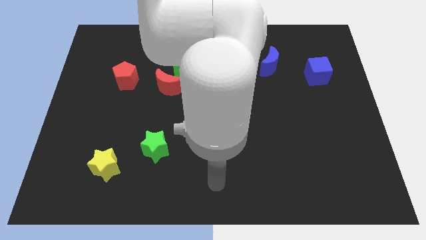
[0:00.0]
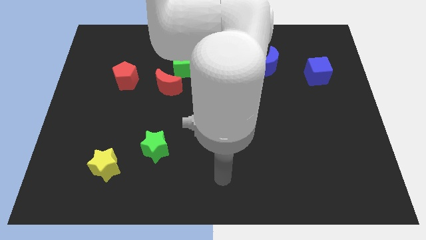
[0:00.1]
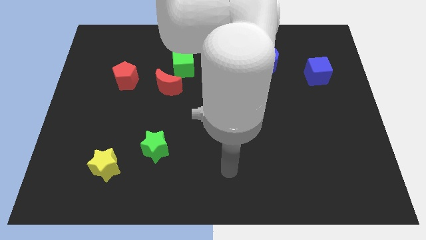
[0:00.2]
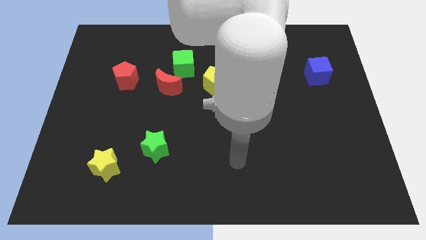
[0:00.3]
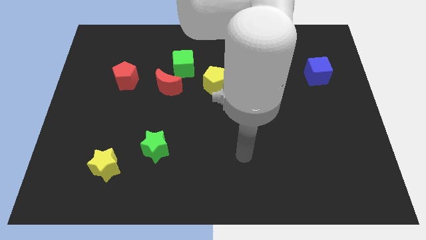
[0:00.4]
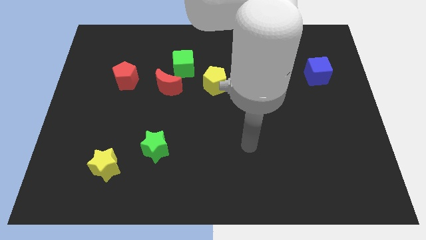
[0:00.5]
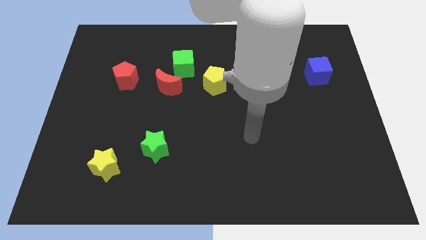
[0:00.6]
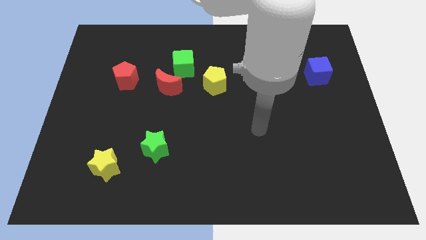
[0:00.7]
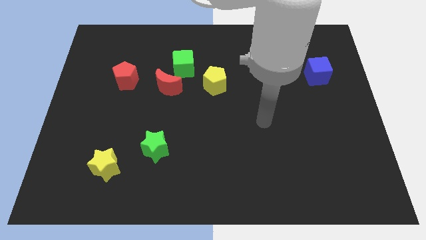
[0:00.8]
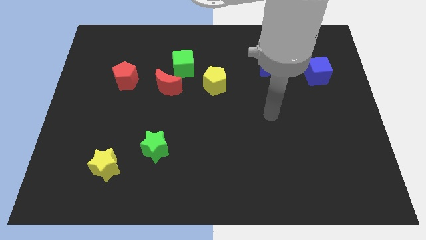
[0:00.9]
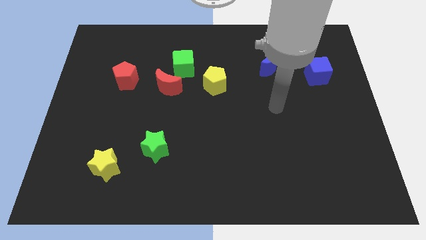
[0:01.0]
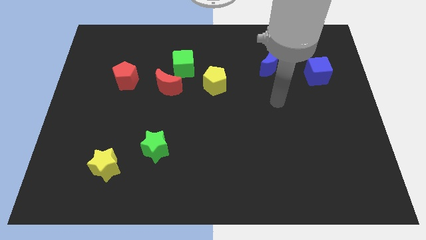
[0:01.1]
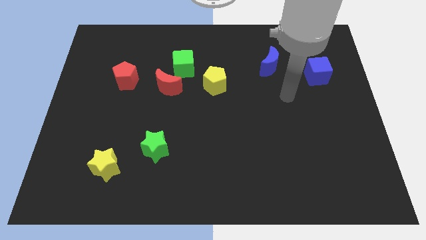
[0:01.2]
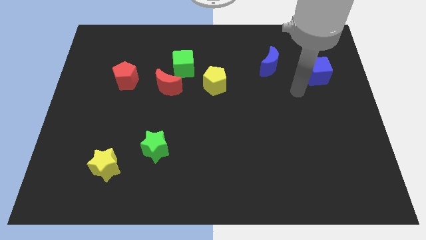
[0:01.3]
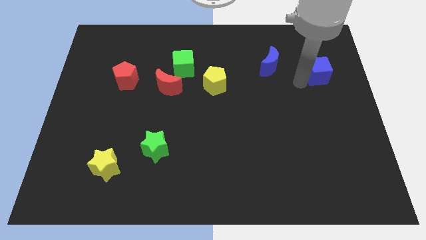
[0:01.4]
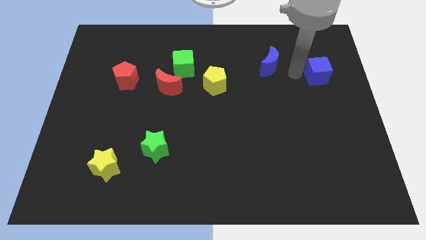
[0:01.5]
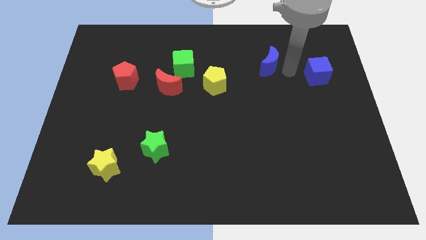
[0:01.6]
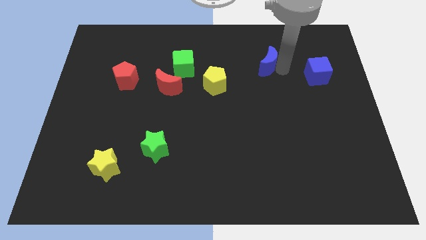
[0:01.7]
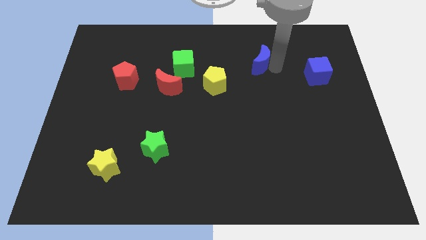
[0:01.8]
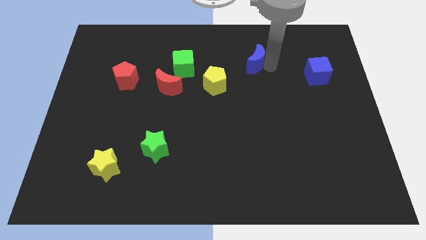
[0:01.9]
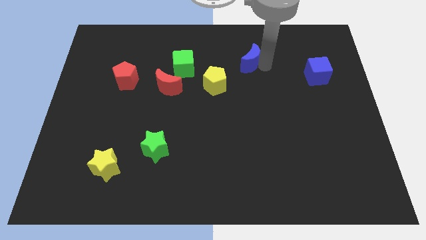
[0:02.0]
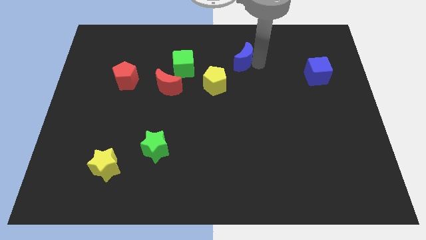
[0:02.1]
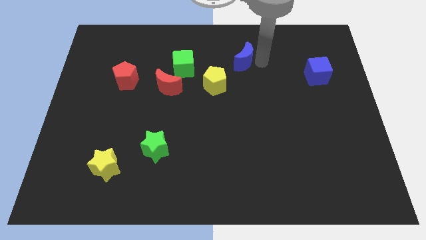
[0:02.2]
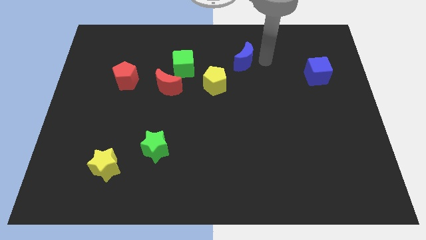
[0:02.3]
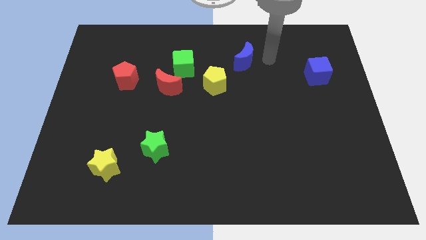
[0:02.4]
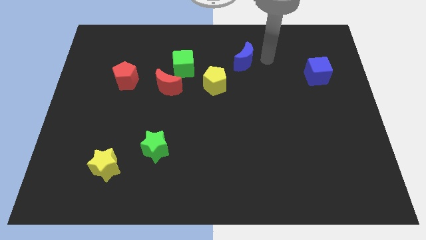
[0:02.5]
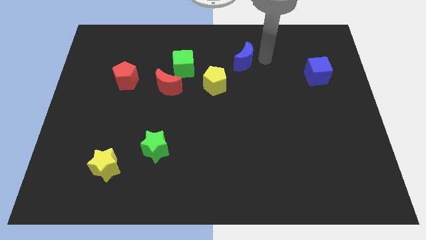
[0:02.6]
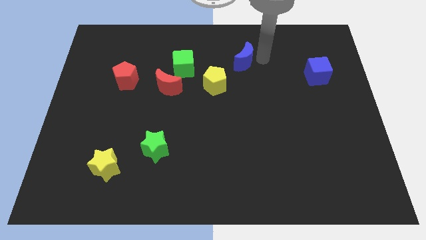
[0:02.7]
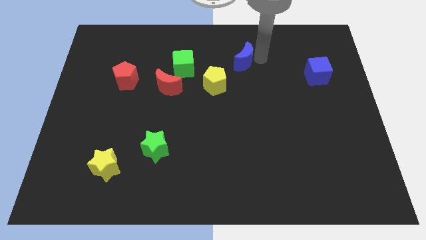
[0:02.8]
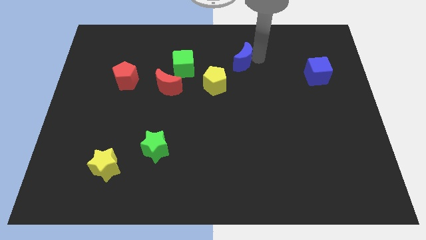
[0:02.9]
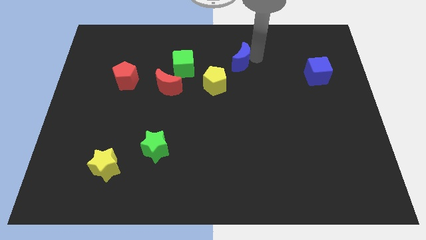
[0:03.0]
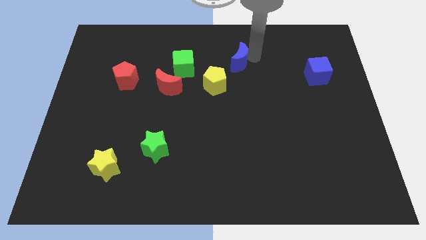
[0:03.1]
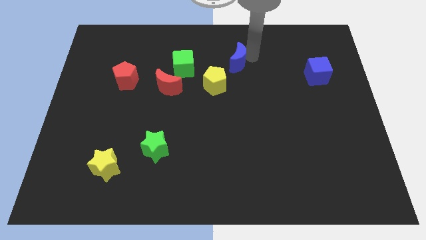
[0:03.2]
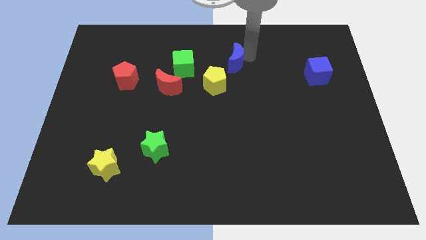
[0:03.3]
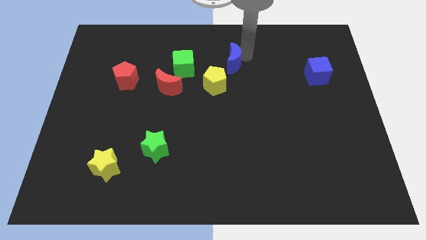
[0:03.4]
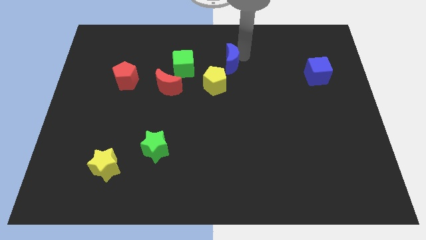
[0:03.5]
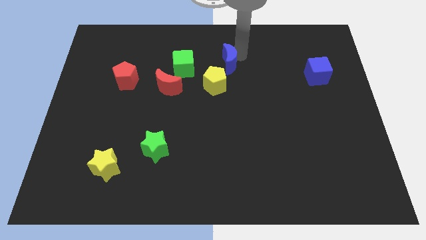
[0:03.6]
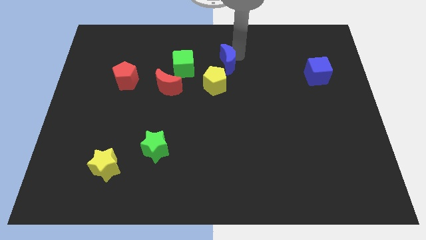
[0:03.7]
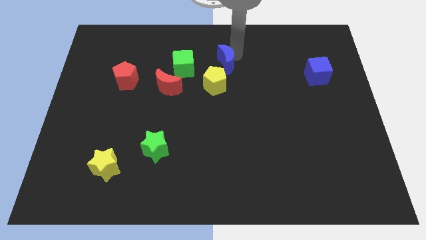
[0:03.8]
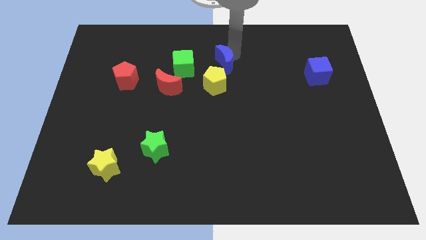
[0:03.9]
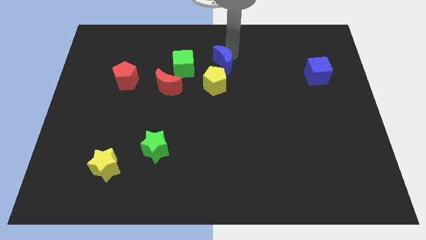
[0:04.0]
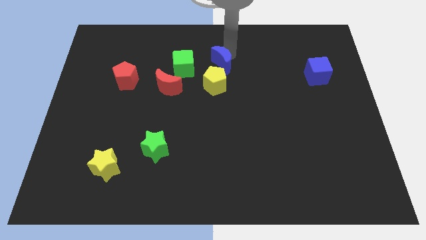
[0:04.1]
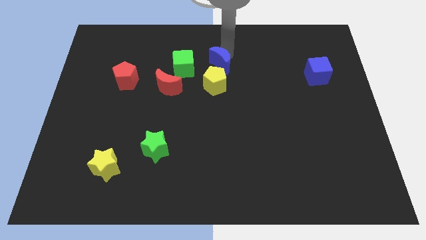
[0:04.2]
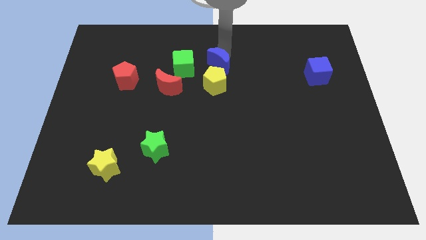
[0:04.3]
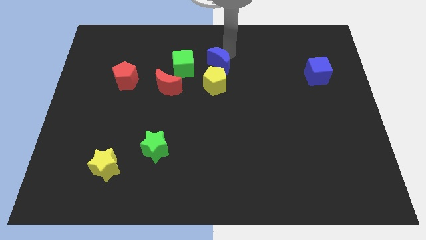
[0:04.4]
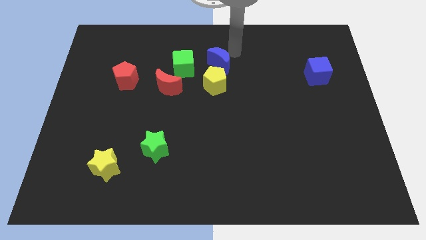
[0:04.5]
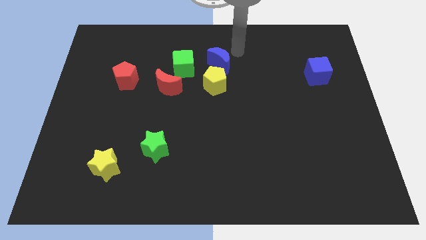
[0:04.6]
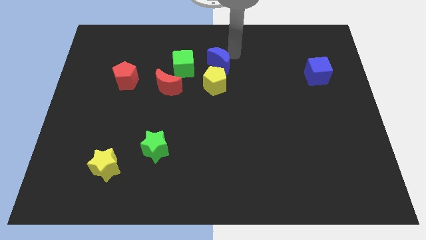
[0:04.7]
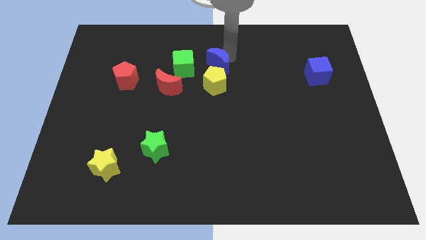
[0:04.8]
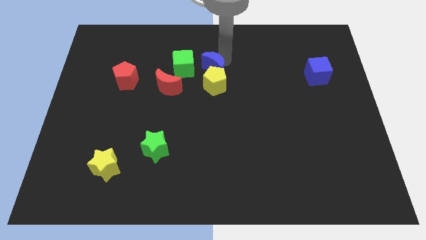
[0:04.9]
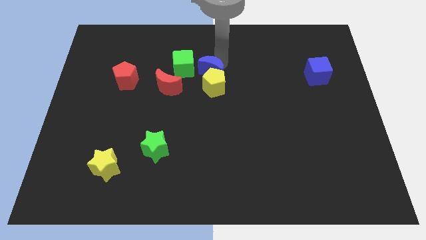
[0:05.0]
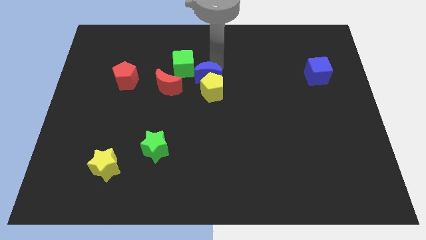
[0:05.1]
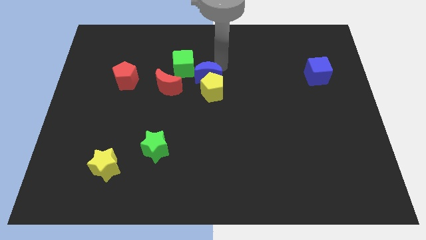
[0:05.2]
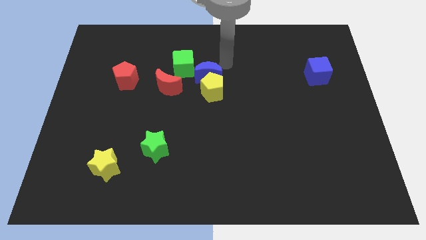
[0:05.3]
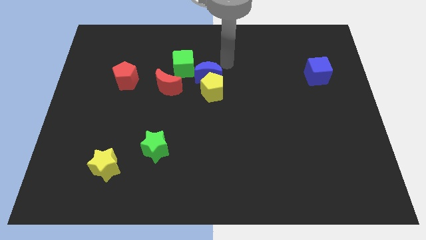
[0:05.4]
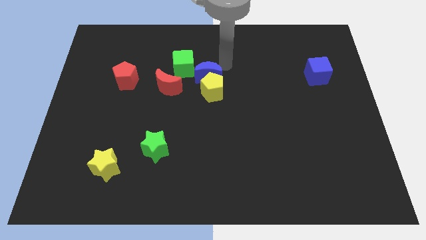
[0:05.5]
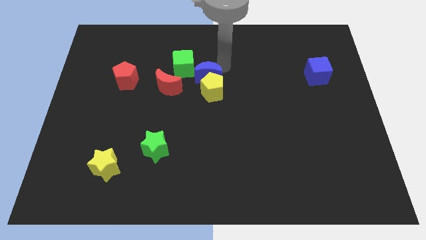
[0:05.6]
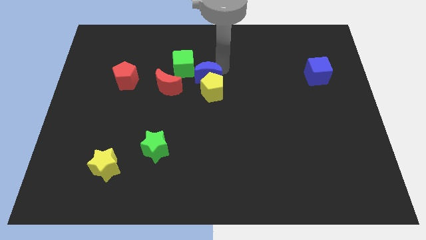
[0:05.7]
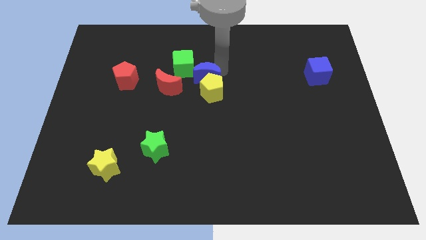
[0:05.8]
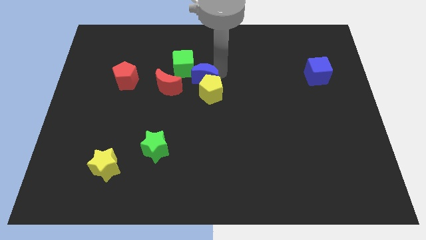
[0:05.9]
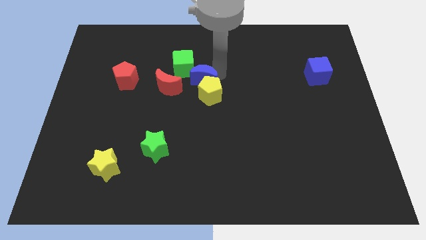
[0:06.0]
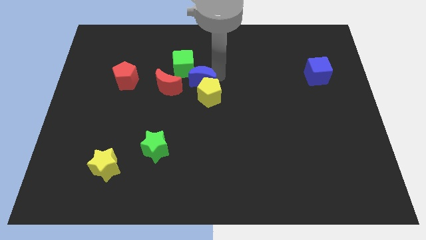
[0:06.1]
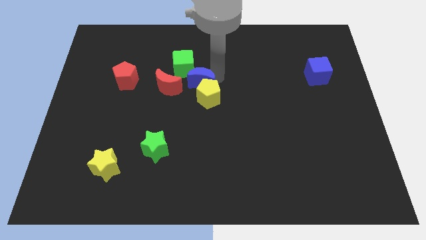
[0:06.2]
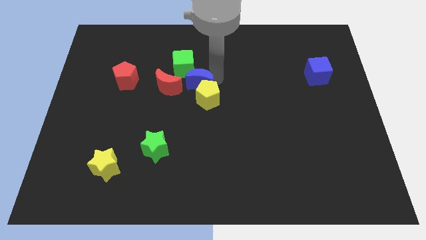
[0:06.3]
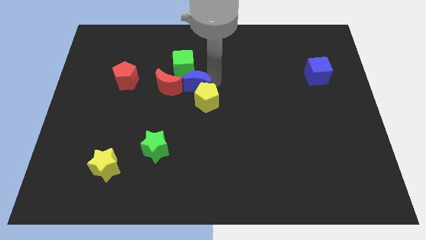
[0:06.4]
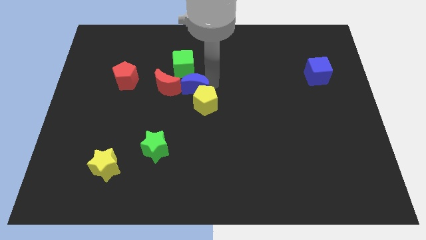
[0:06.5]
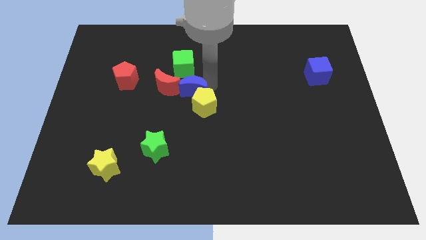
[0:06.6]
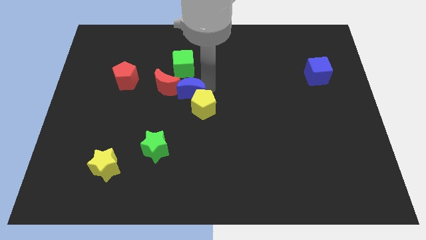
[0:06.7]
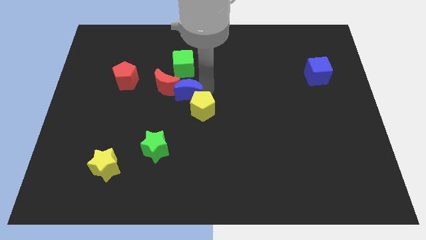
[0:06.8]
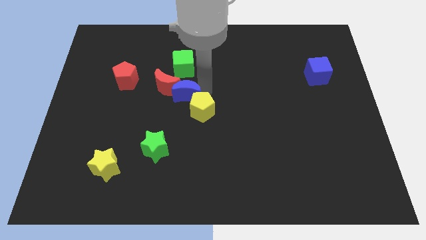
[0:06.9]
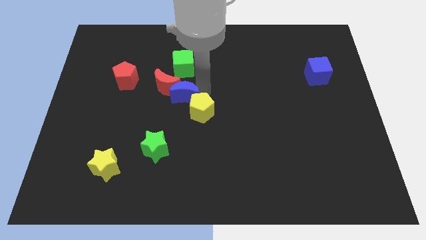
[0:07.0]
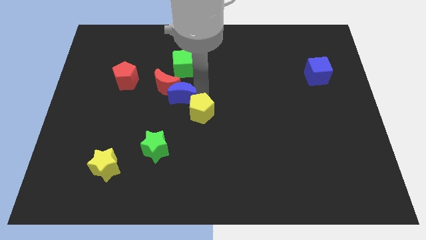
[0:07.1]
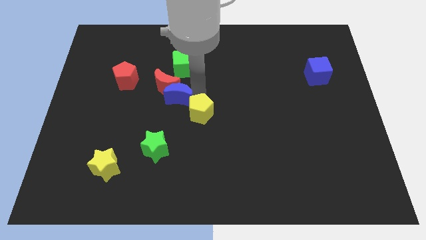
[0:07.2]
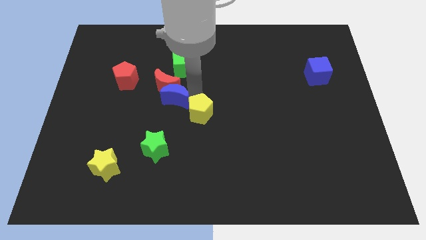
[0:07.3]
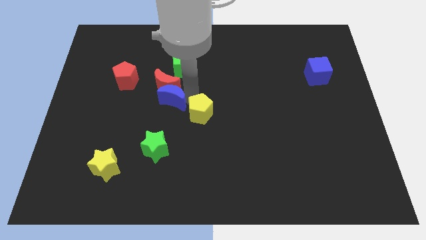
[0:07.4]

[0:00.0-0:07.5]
slide the blue moon diagonally down and to the left of the red moon
